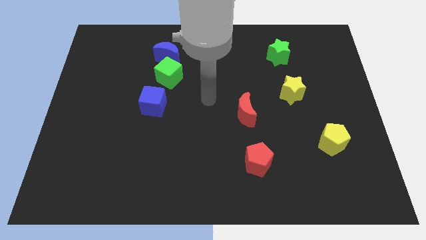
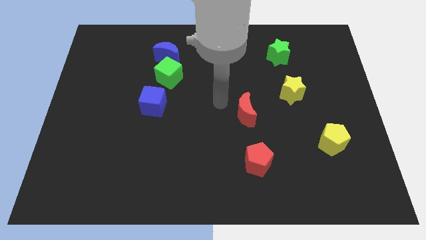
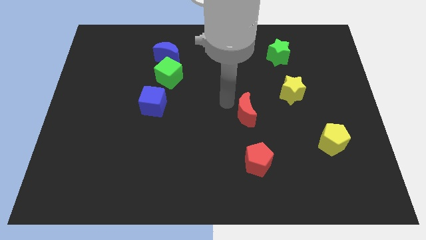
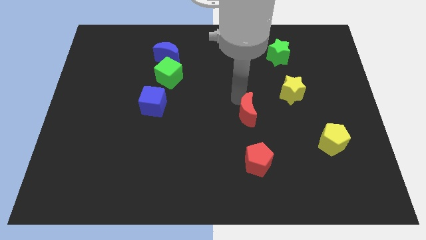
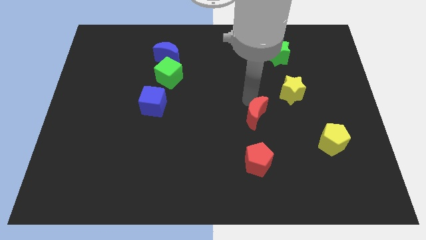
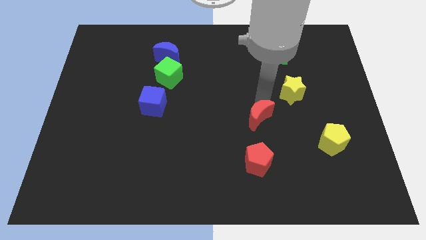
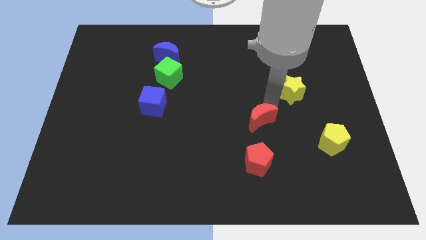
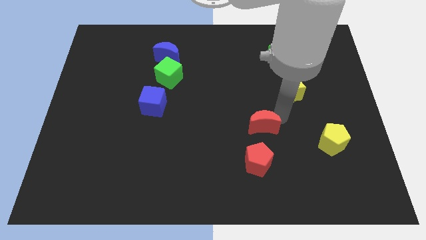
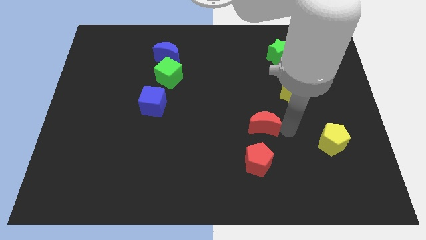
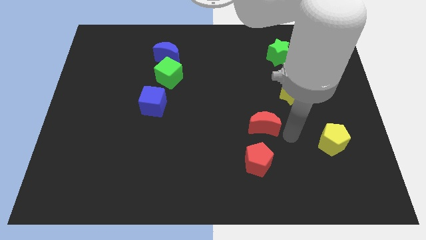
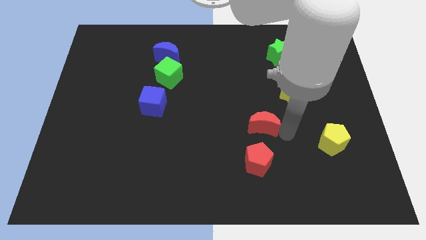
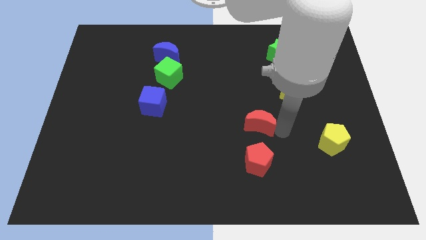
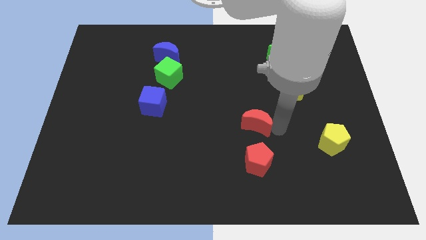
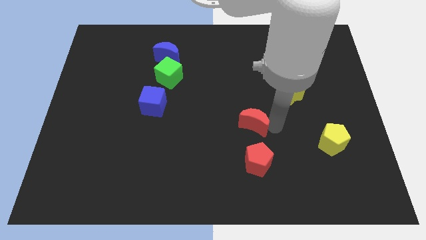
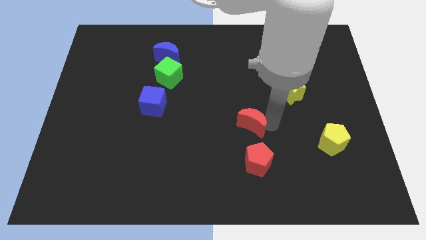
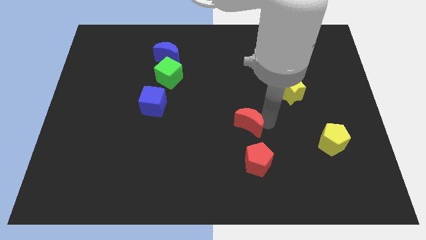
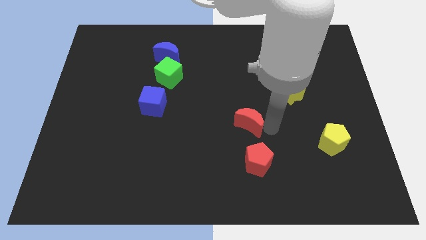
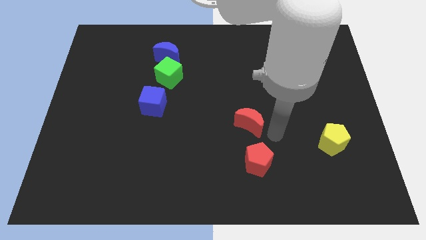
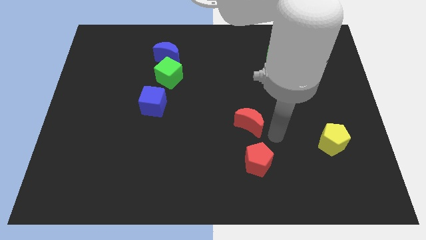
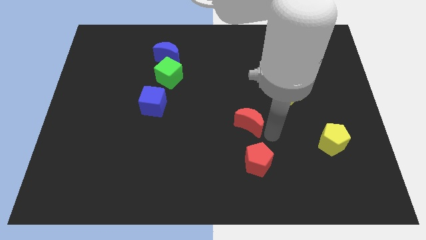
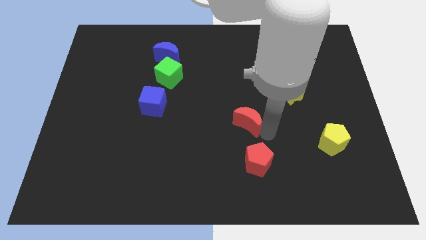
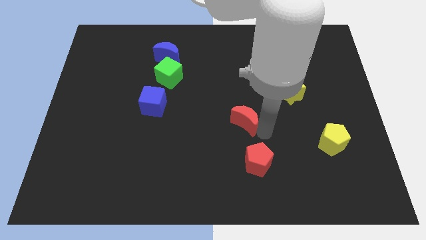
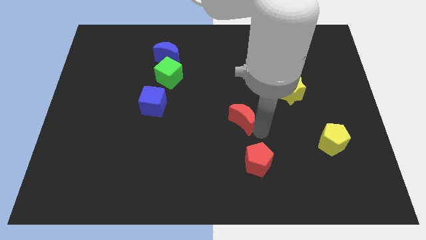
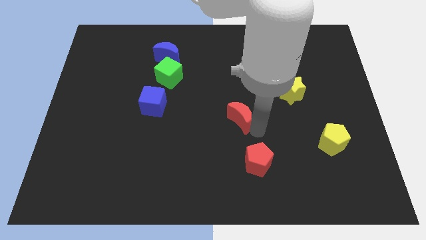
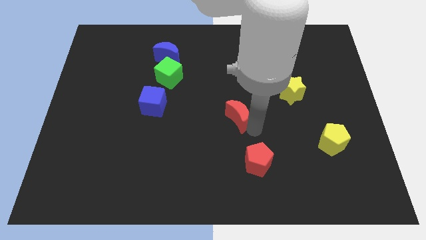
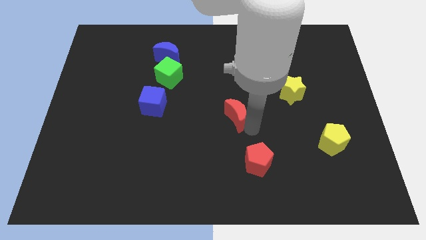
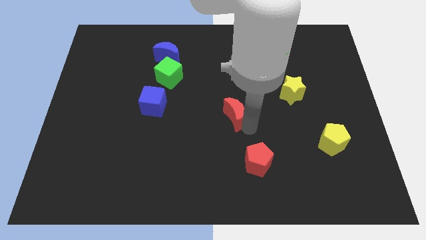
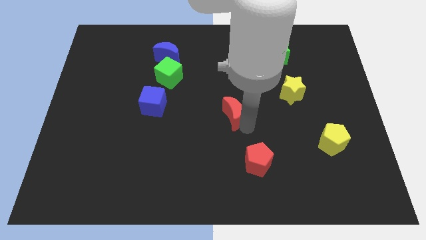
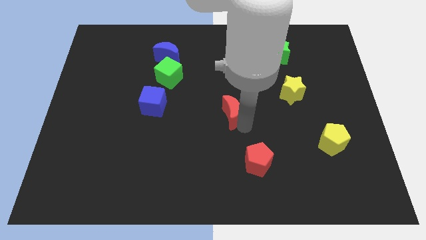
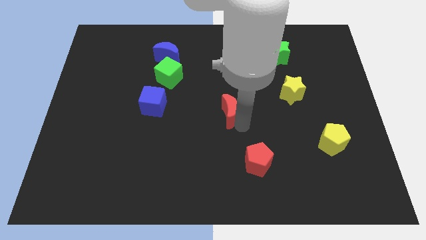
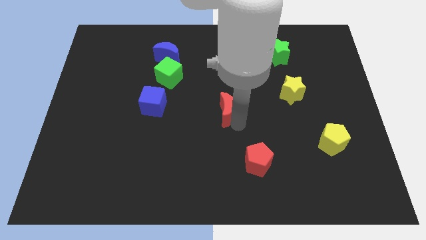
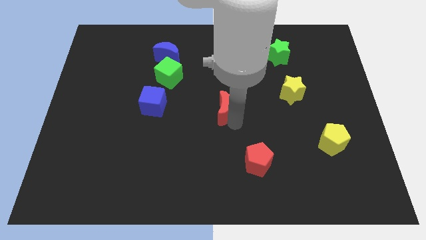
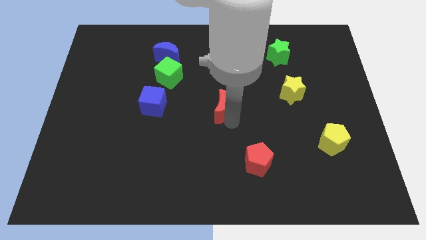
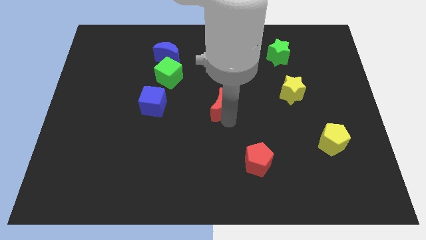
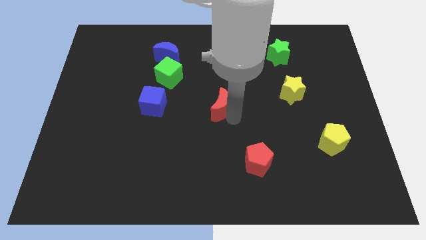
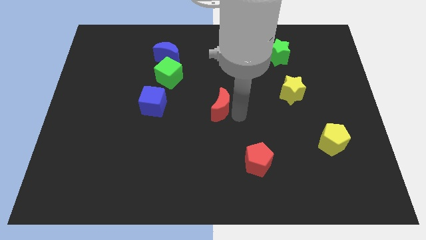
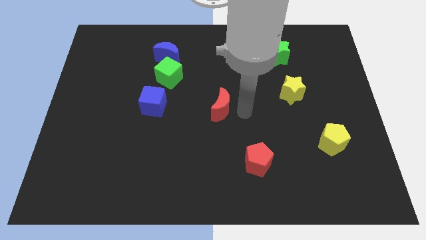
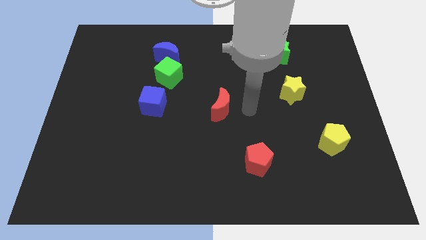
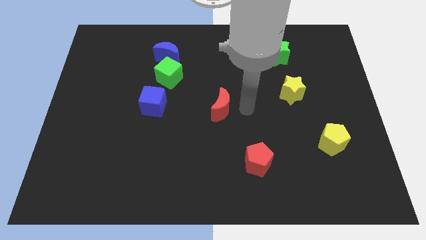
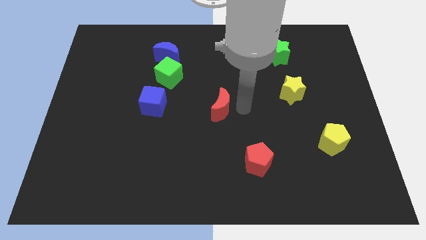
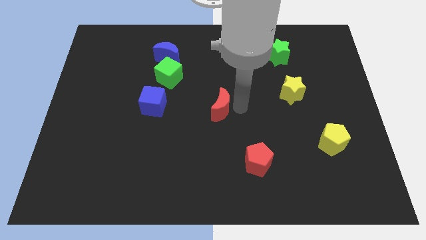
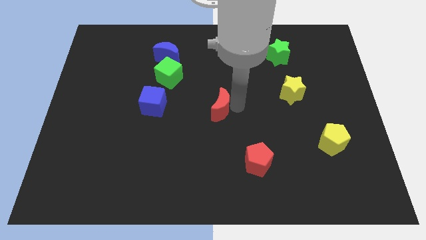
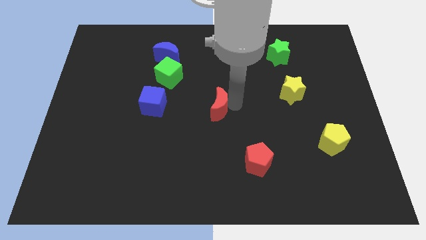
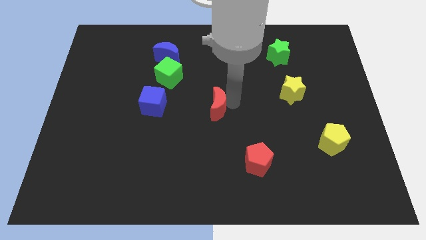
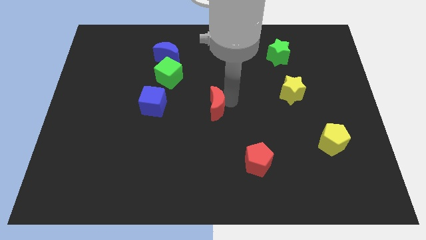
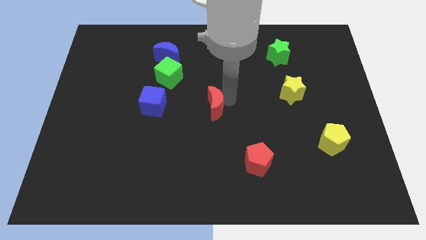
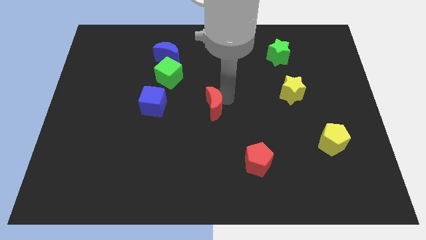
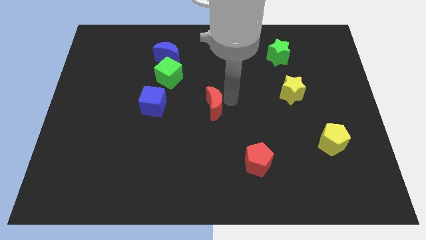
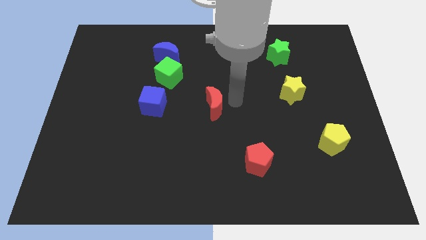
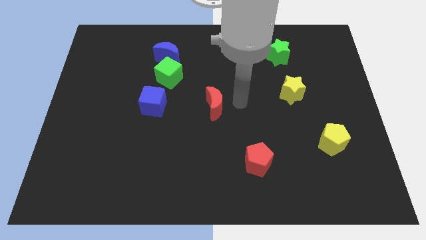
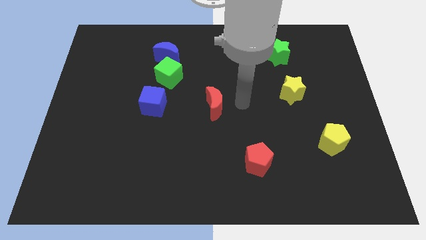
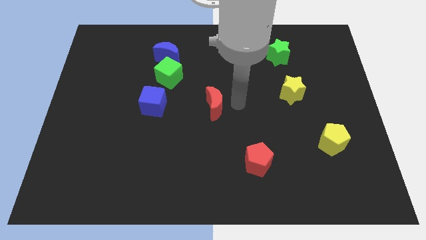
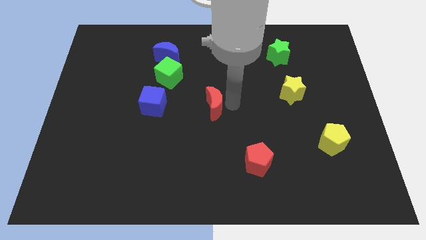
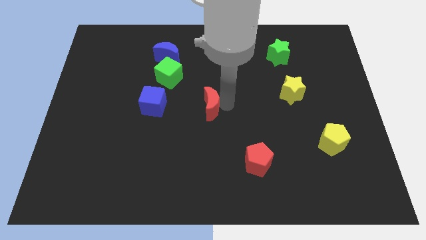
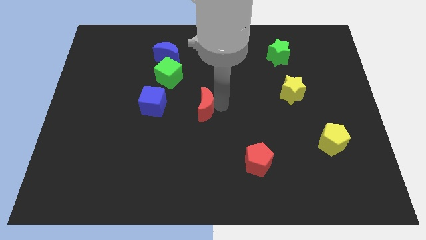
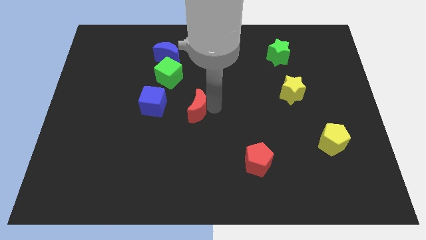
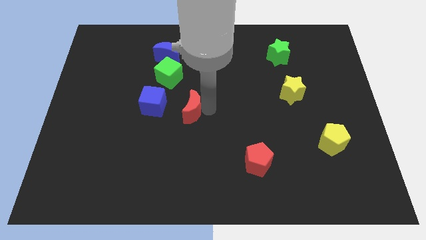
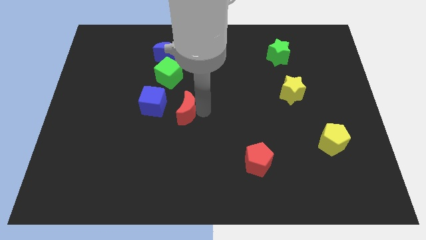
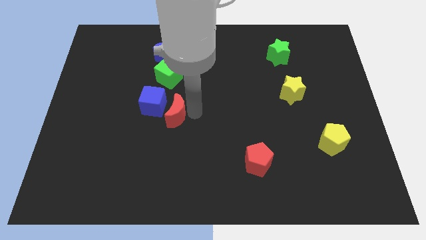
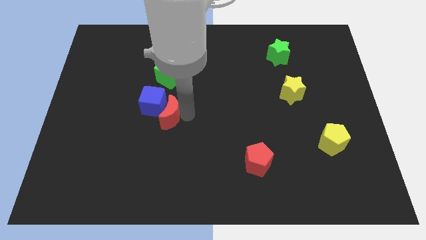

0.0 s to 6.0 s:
put the red moon to the blue cube

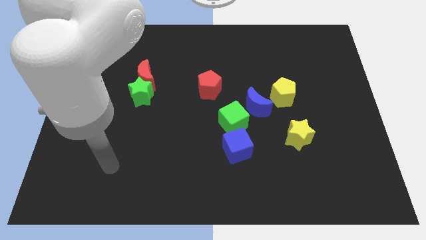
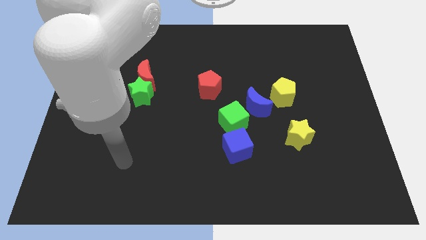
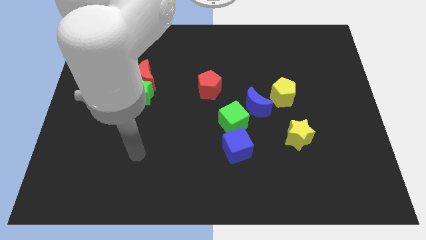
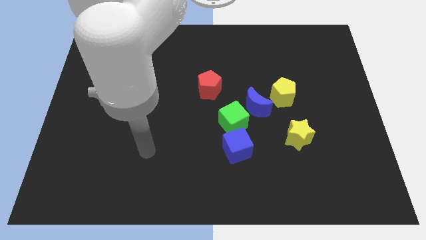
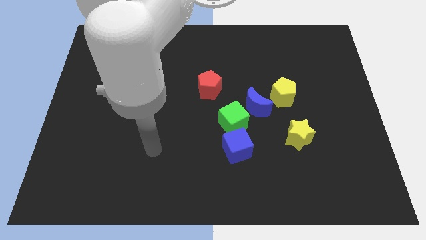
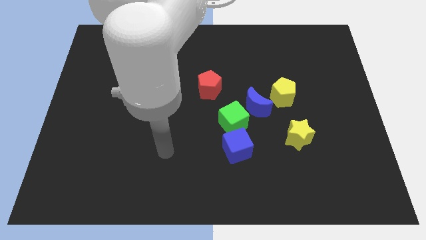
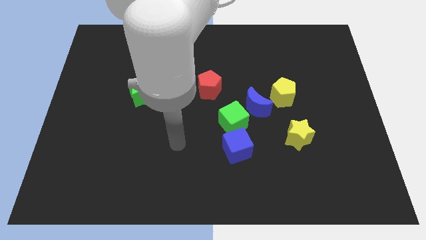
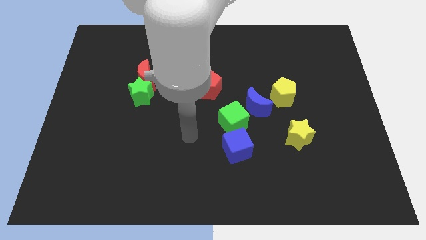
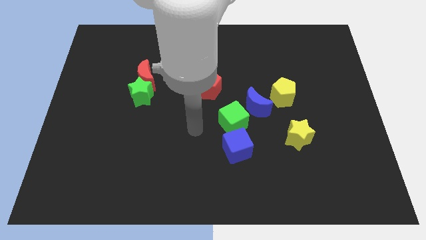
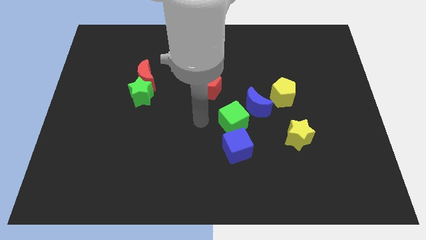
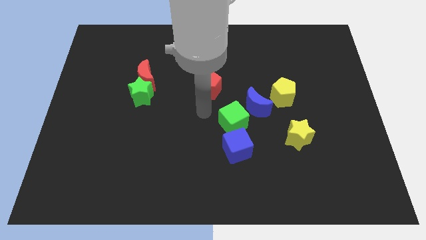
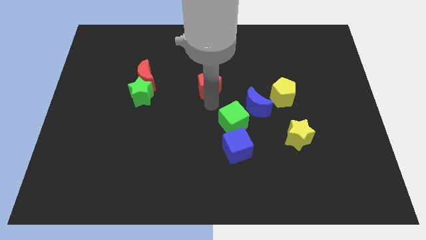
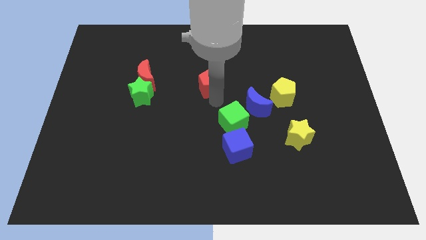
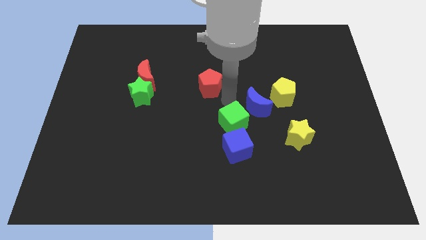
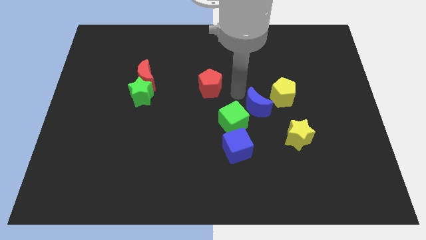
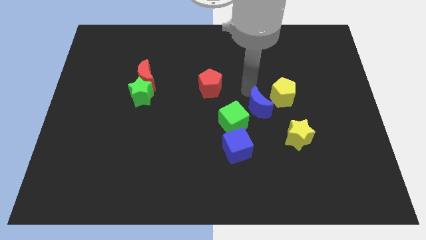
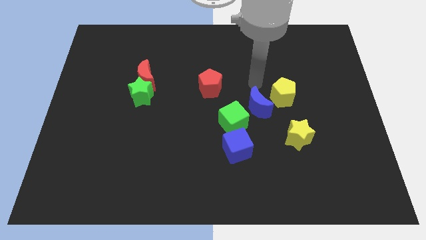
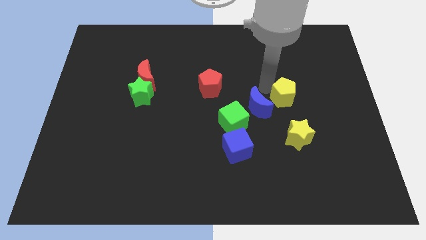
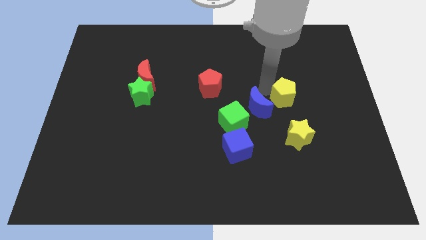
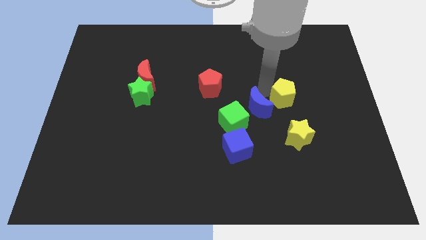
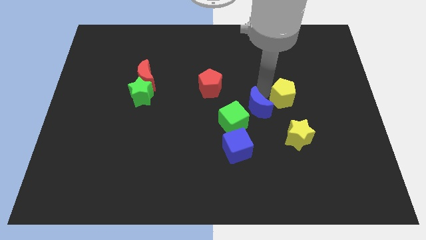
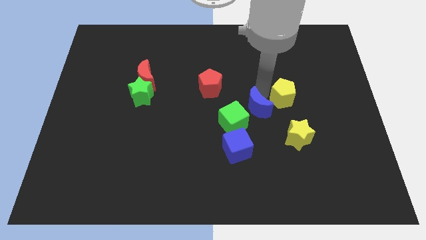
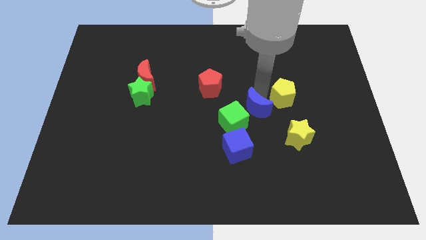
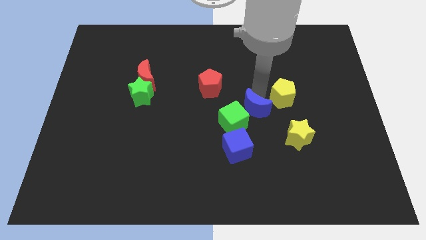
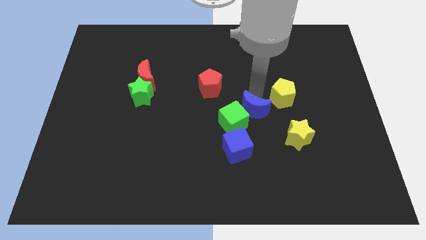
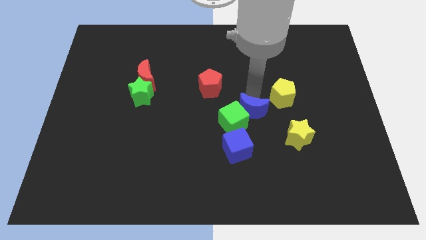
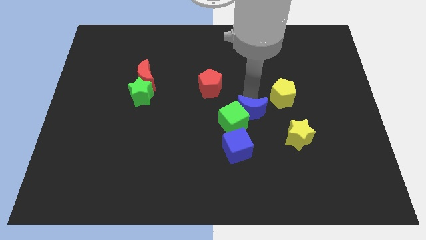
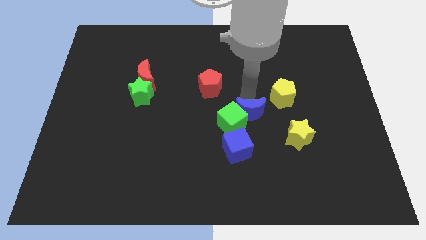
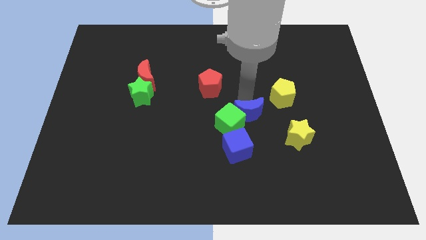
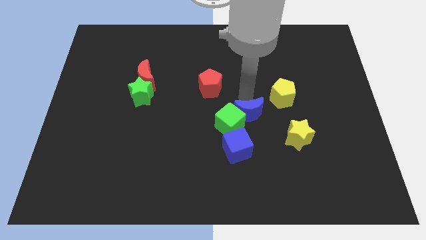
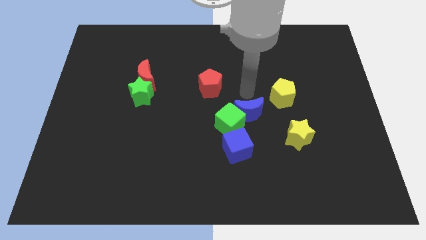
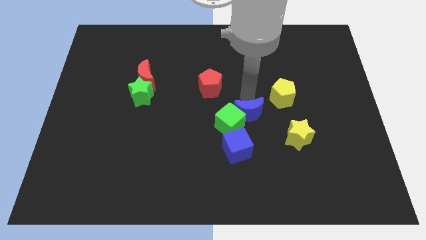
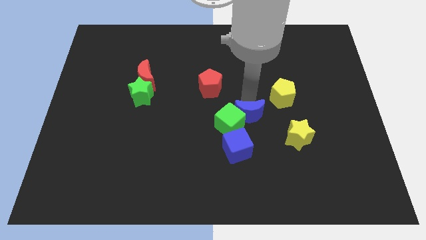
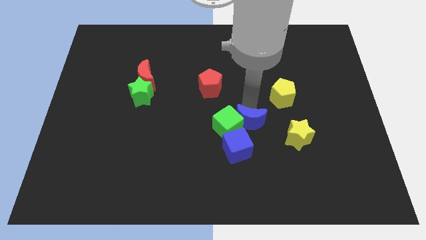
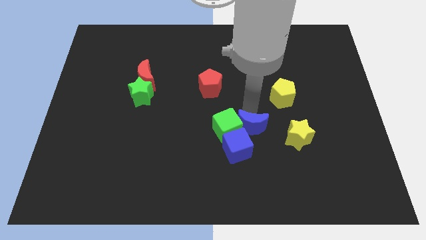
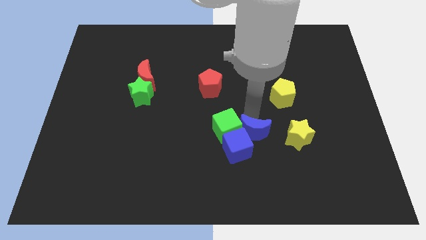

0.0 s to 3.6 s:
move the blue moon next to the blue cube
